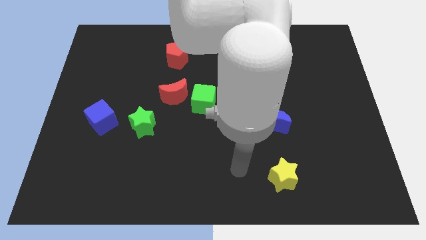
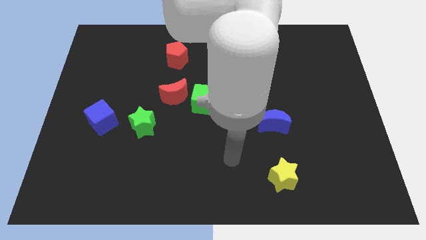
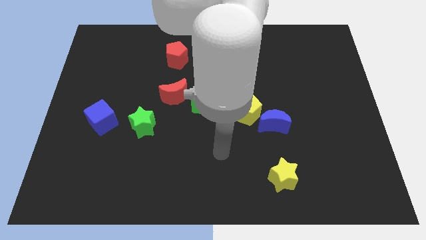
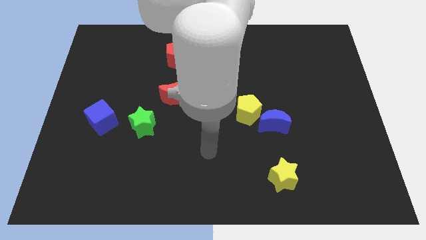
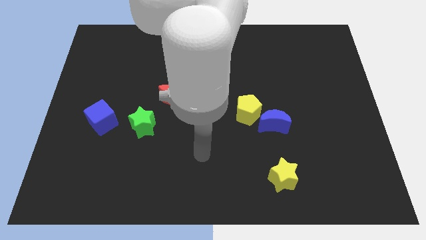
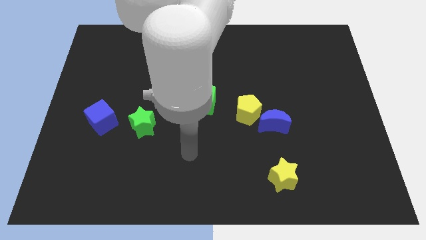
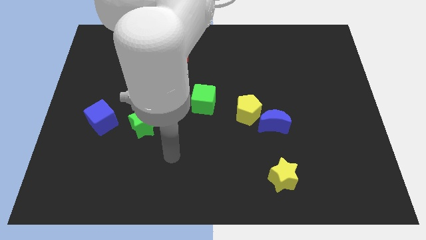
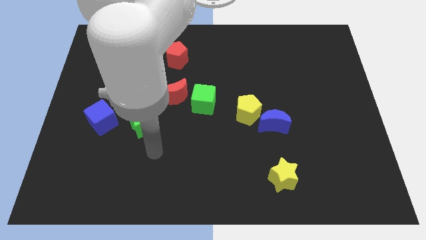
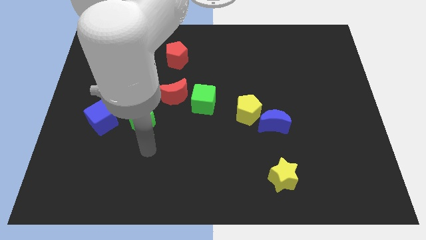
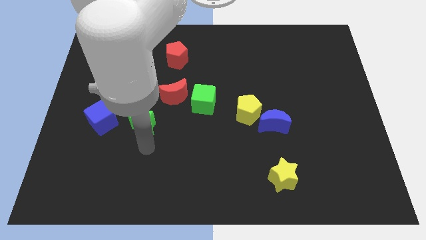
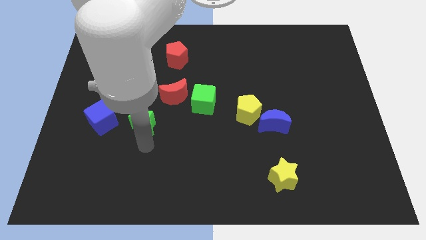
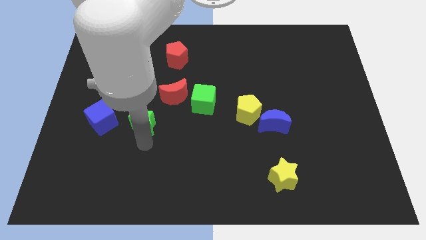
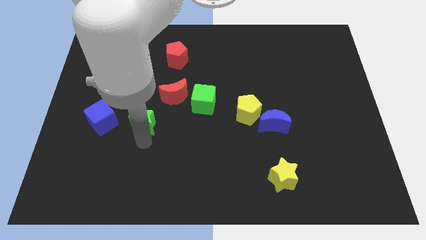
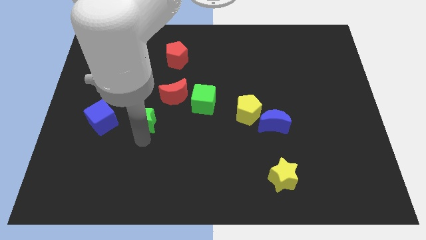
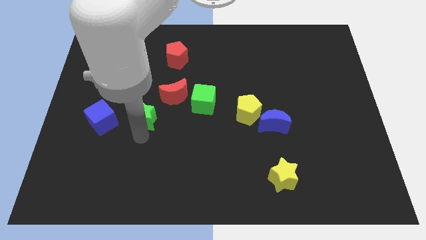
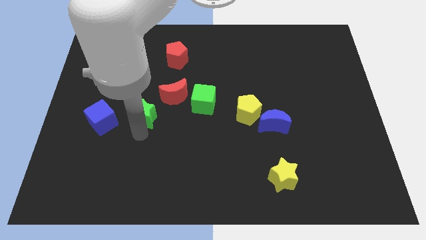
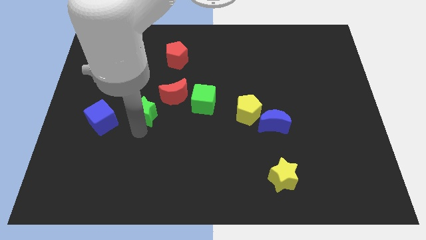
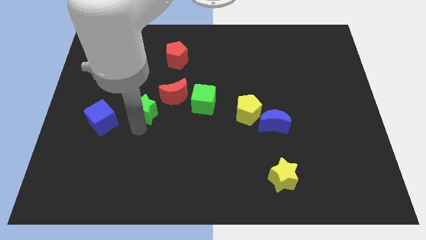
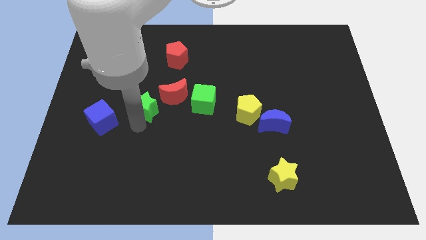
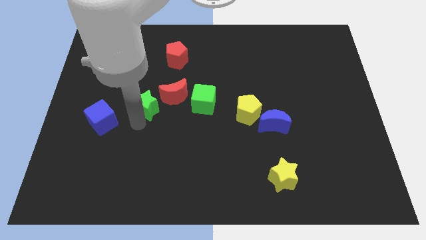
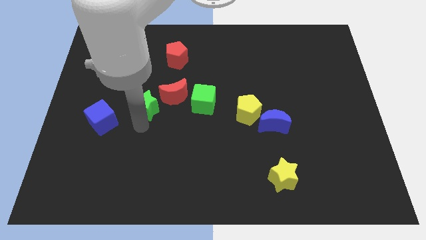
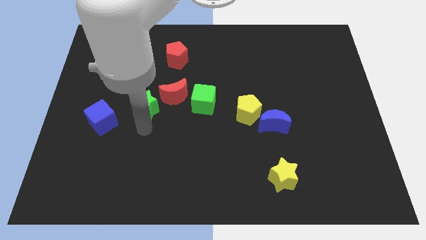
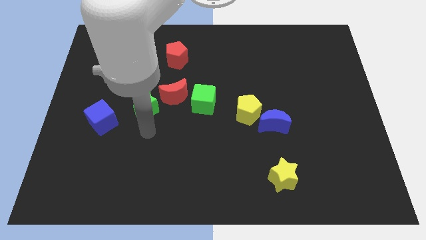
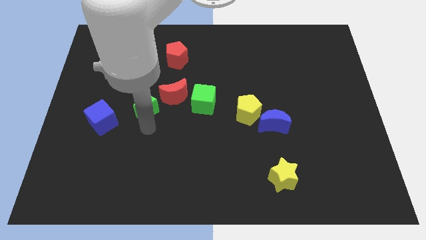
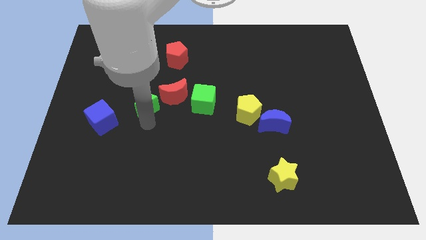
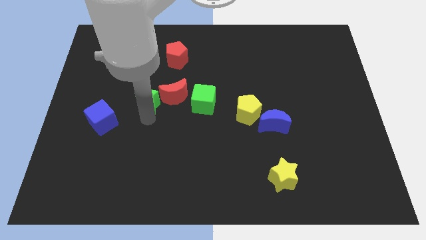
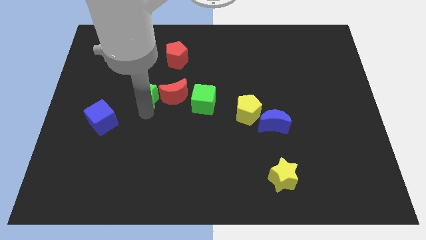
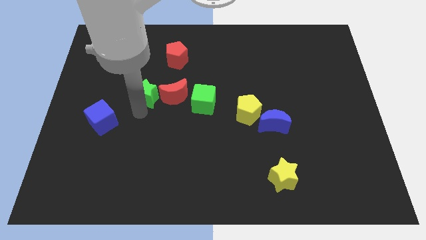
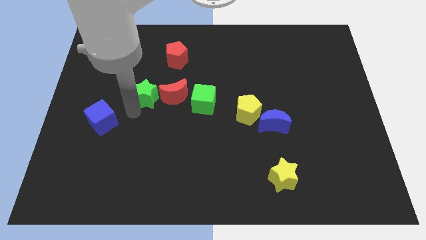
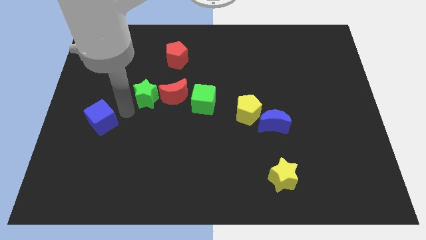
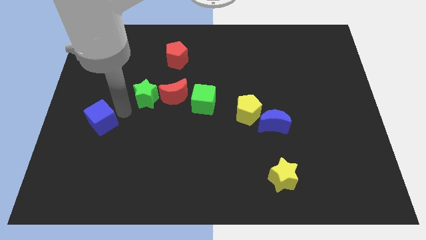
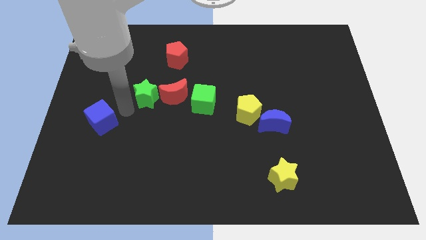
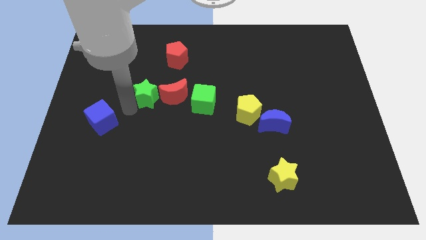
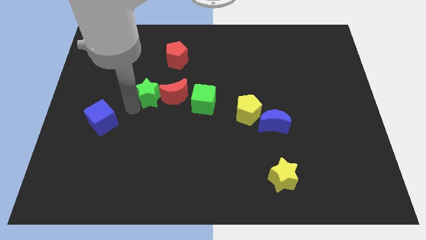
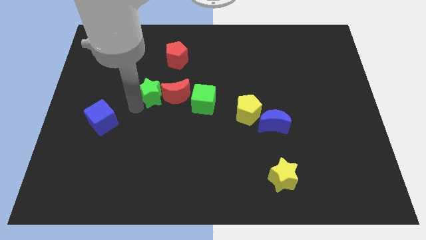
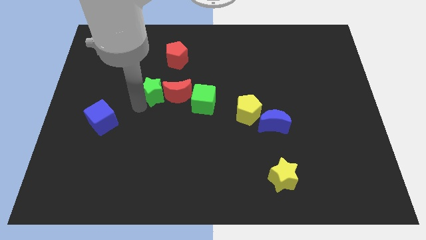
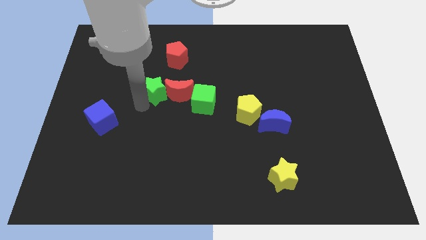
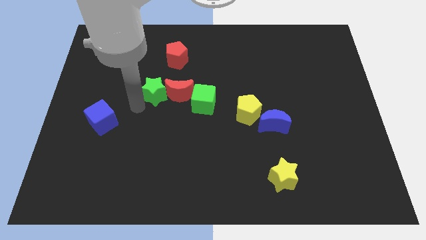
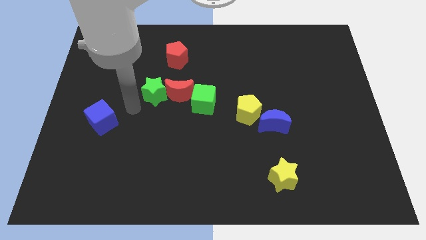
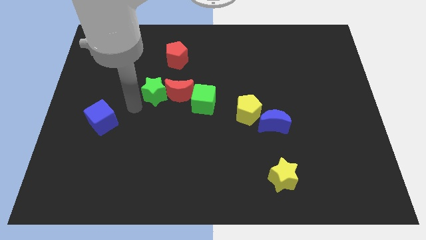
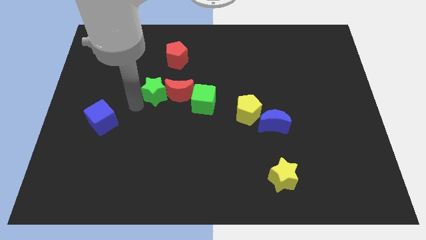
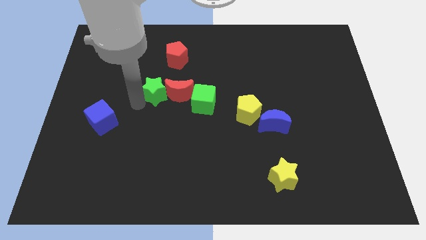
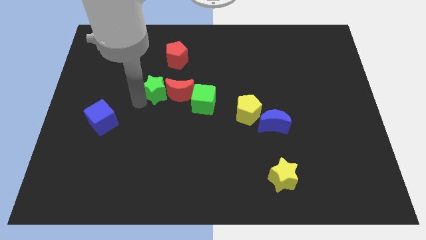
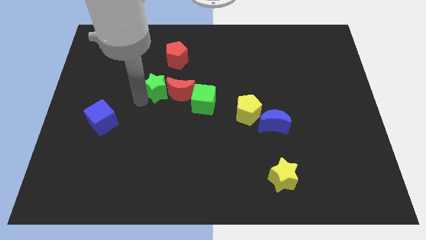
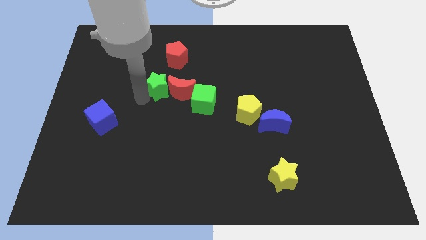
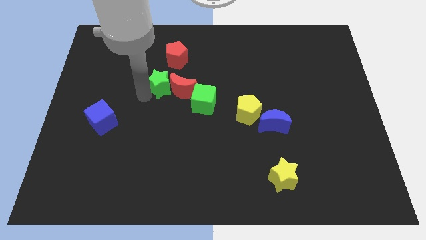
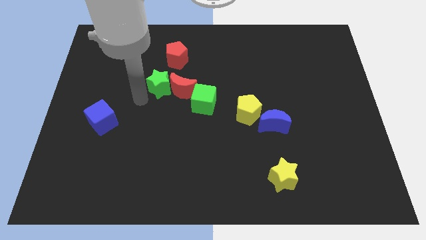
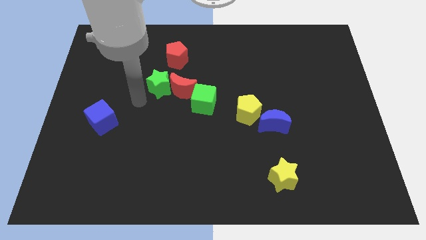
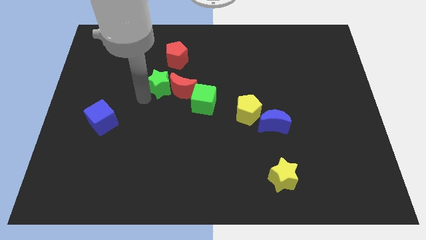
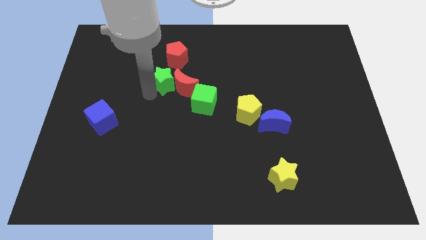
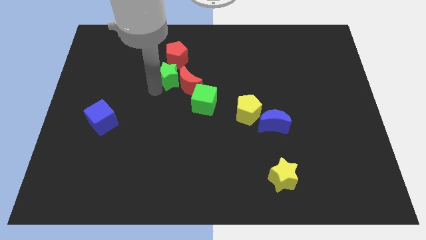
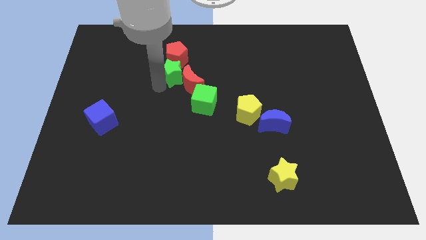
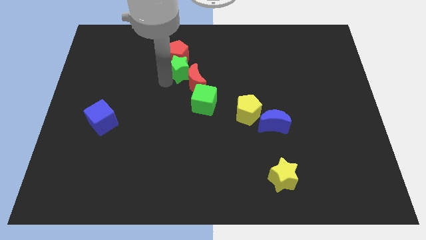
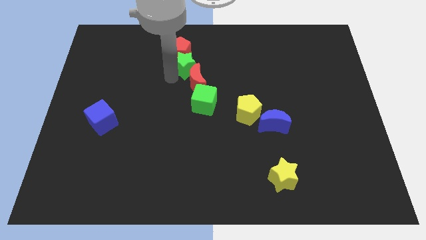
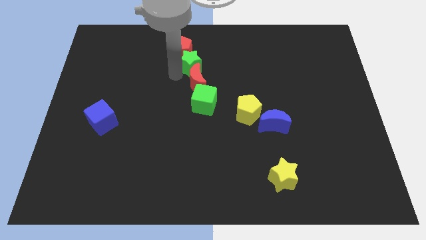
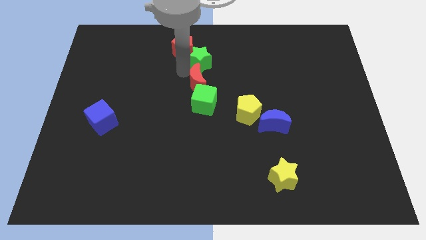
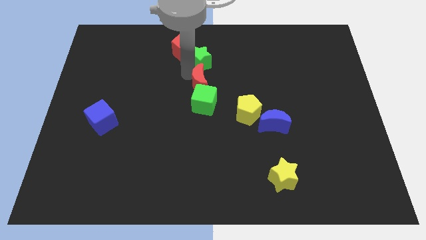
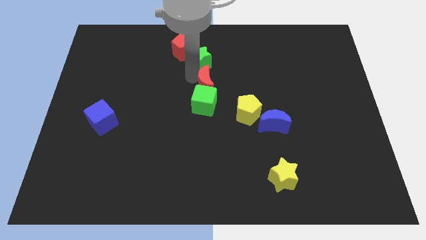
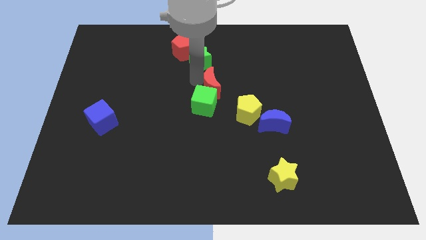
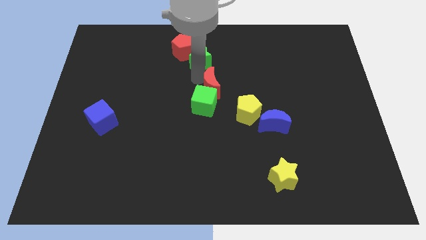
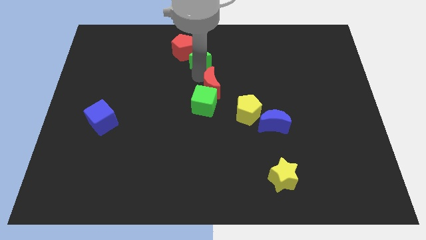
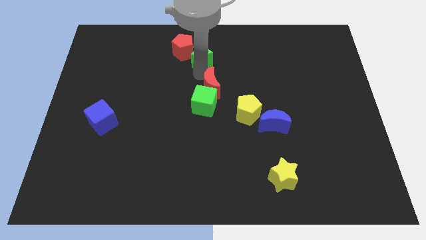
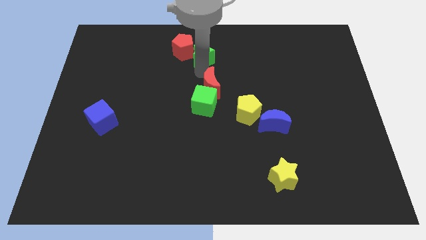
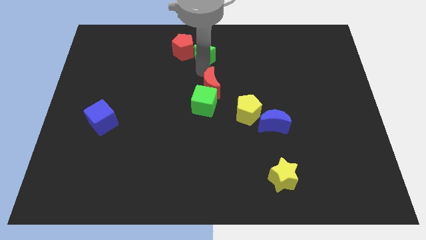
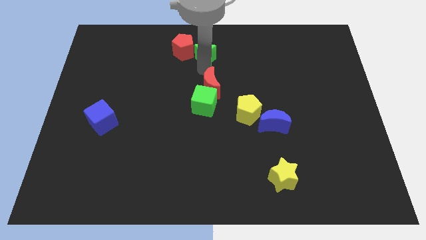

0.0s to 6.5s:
put the green star to the top

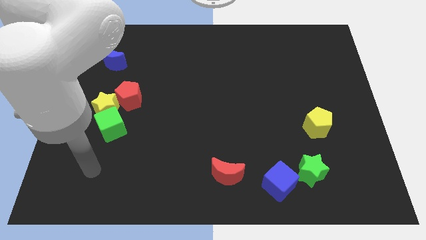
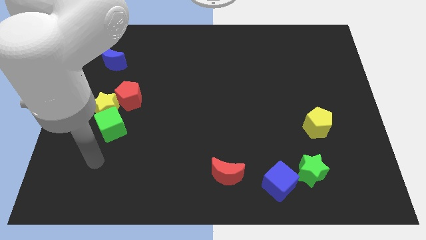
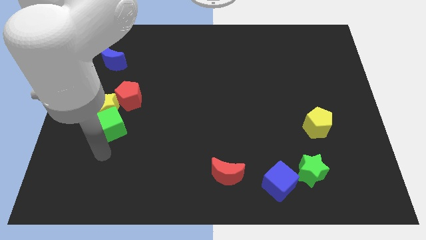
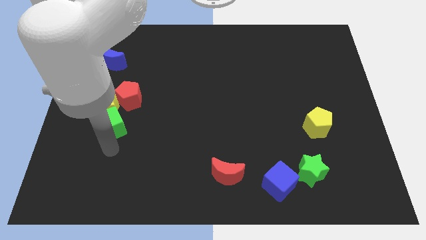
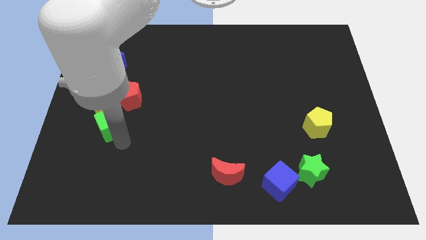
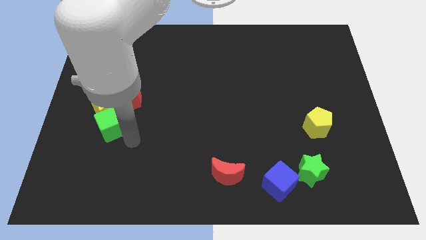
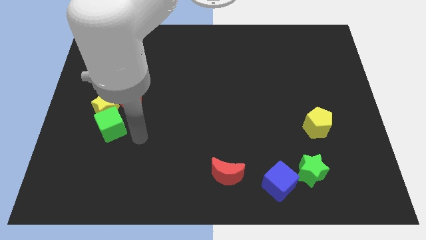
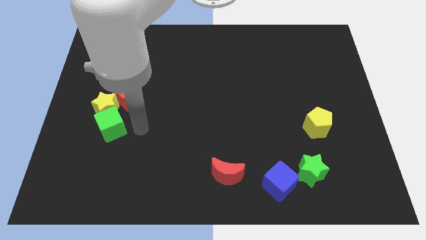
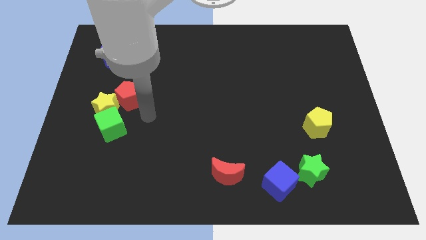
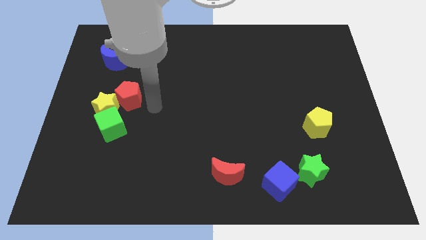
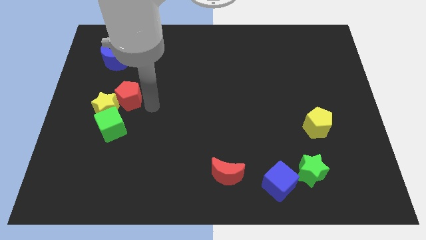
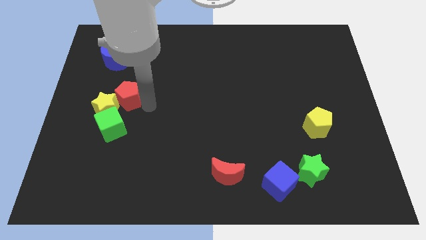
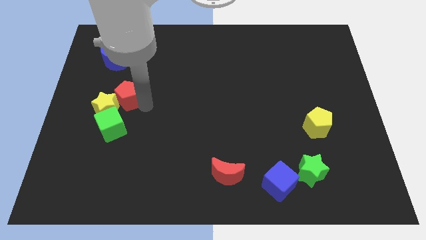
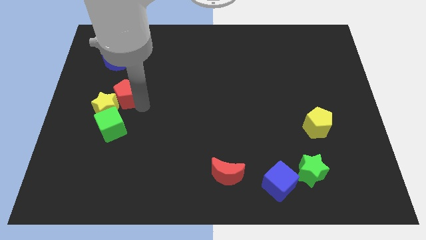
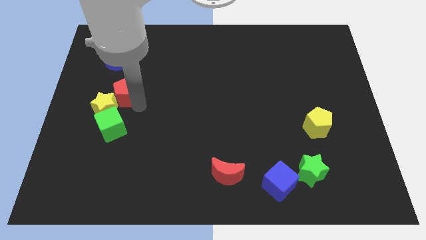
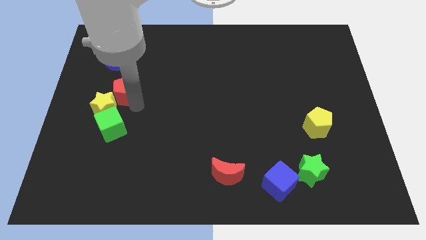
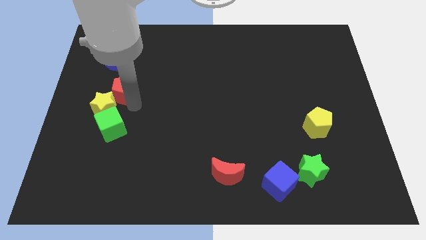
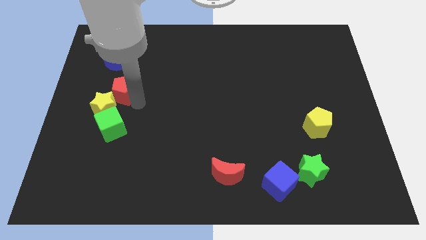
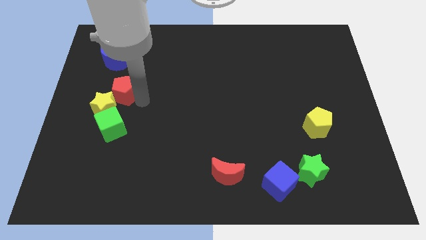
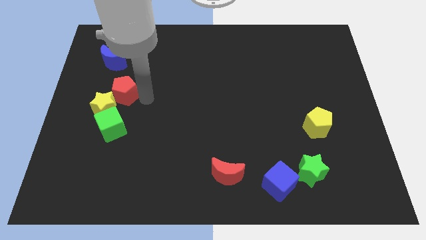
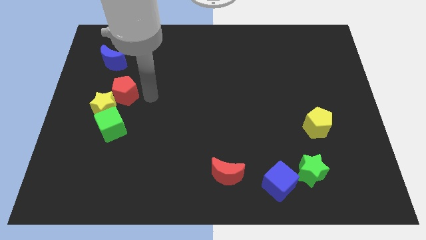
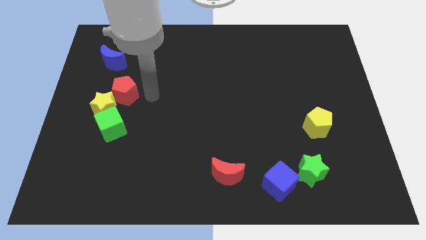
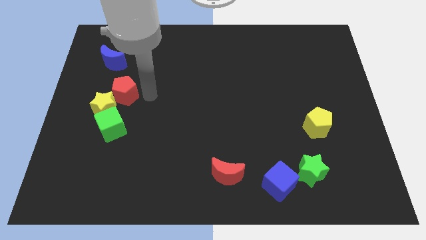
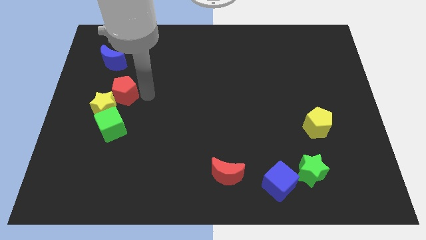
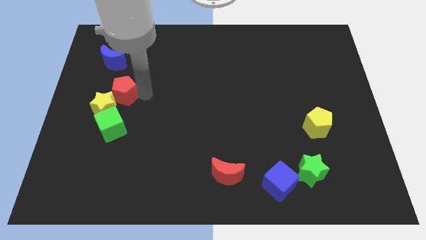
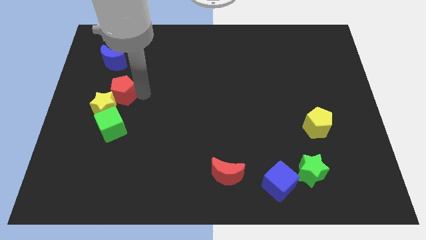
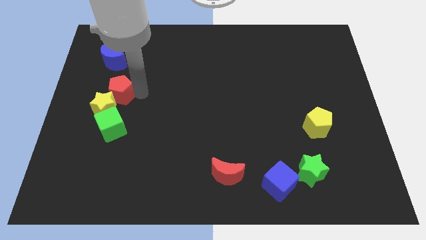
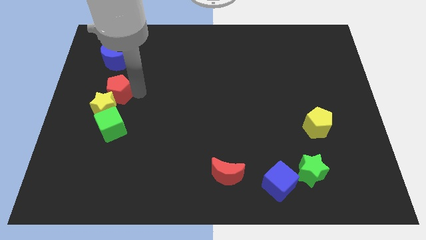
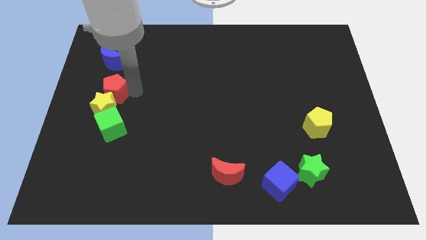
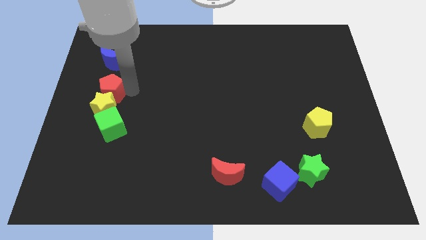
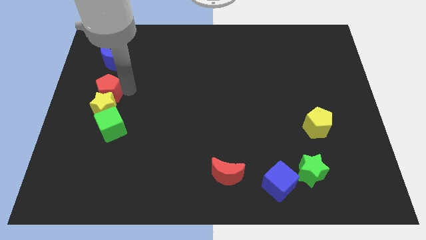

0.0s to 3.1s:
slide the red pentagon to the left side
